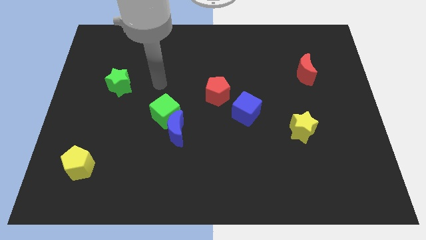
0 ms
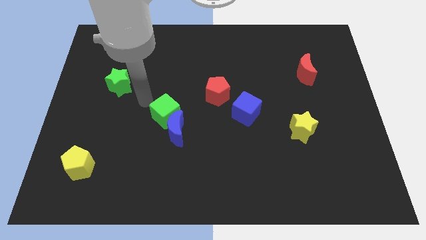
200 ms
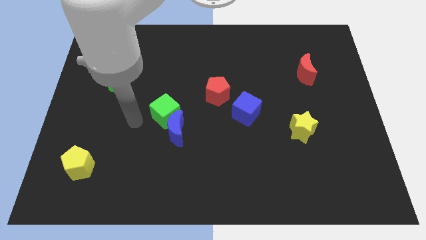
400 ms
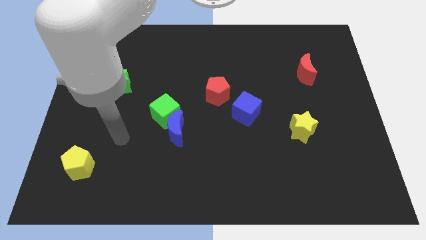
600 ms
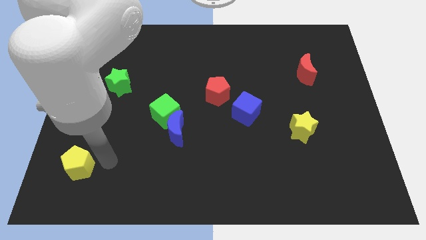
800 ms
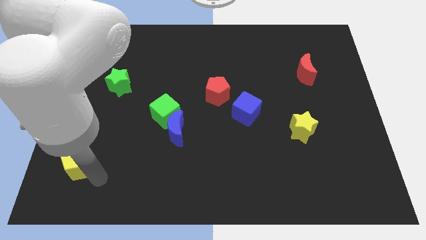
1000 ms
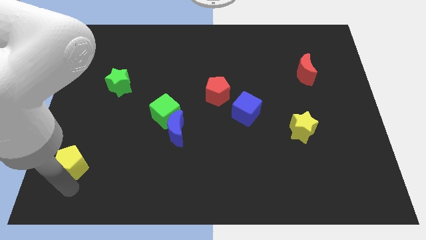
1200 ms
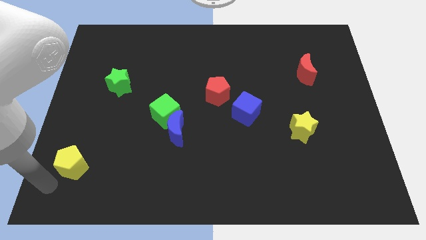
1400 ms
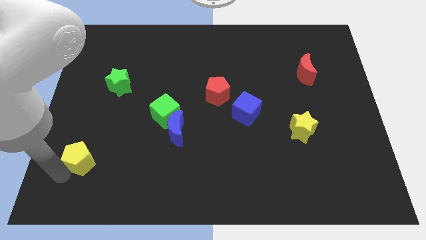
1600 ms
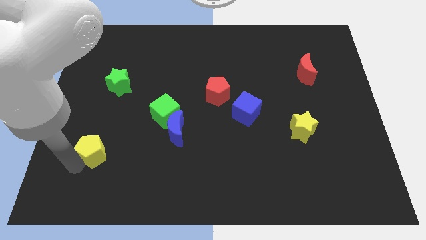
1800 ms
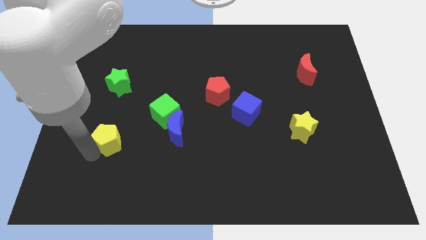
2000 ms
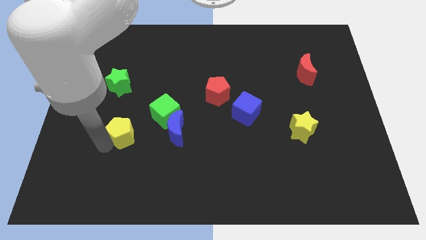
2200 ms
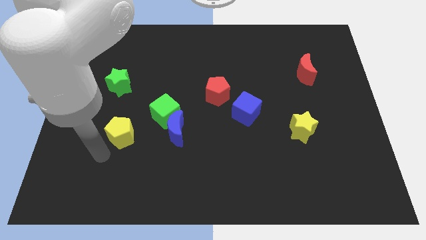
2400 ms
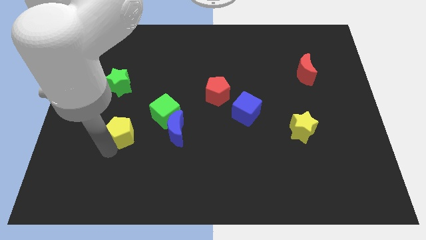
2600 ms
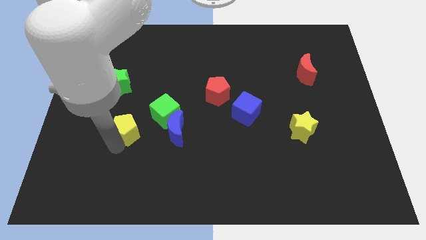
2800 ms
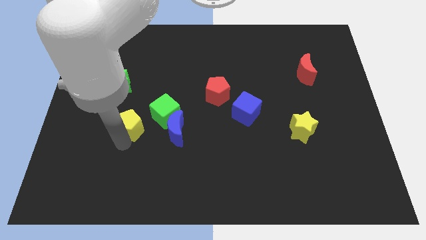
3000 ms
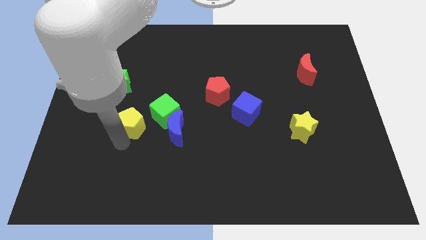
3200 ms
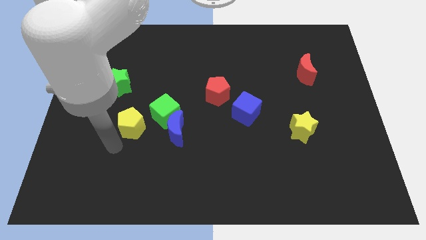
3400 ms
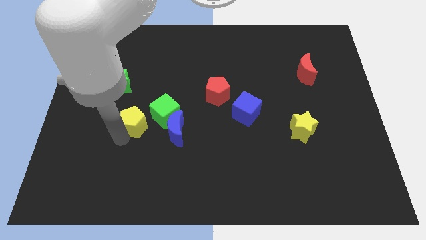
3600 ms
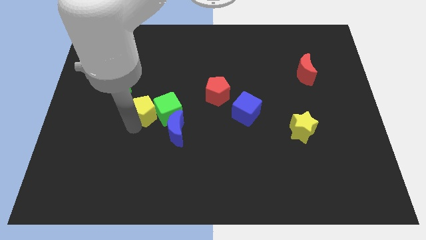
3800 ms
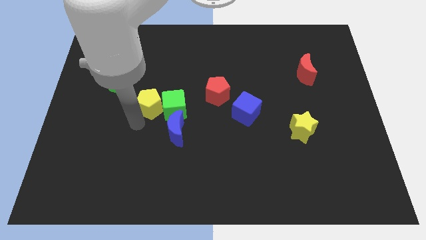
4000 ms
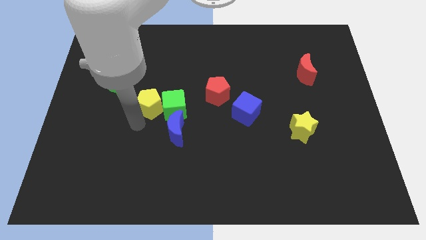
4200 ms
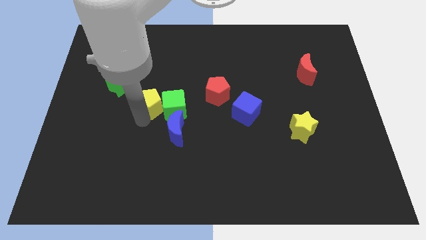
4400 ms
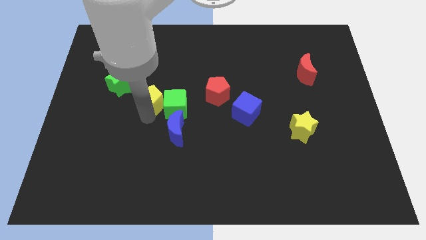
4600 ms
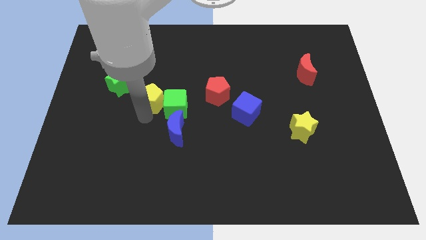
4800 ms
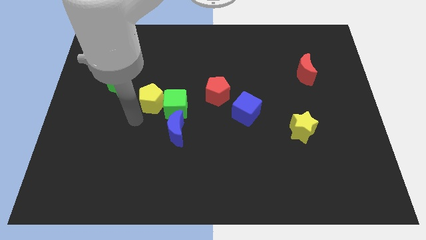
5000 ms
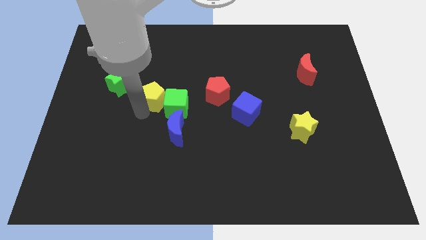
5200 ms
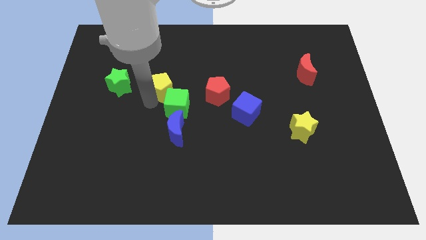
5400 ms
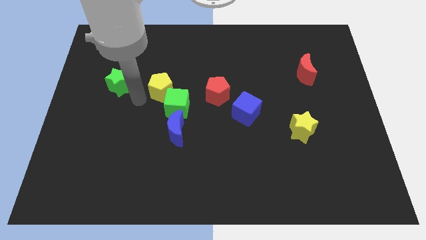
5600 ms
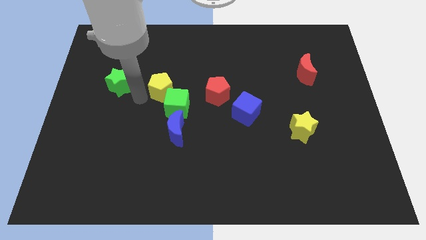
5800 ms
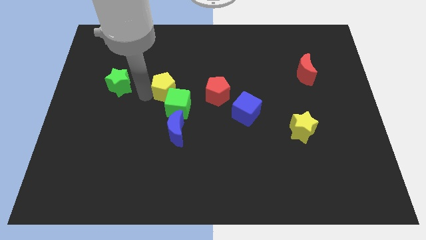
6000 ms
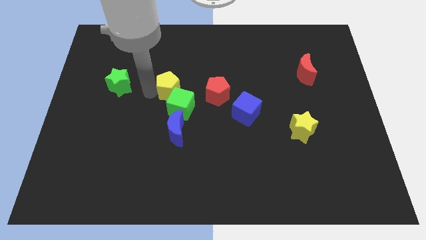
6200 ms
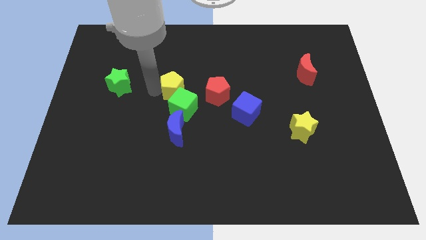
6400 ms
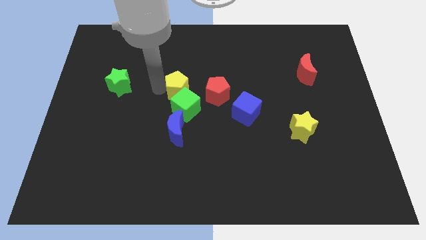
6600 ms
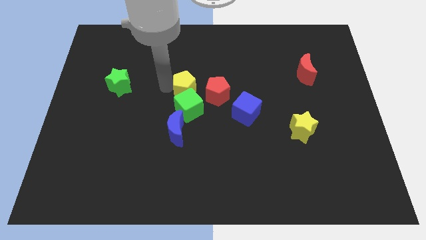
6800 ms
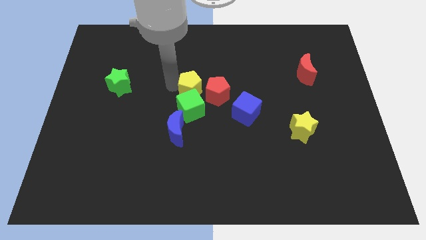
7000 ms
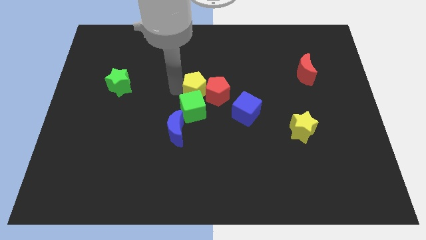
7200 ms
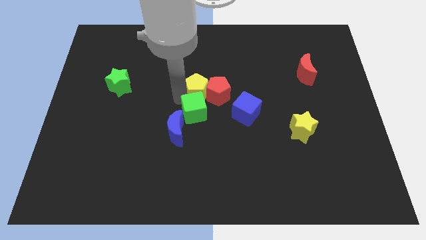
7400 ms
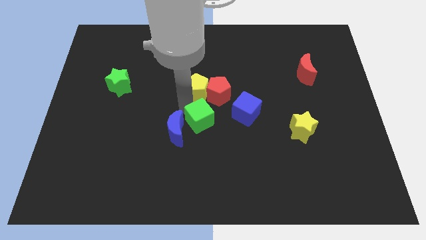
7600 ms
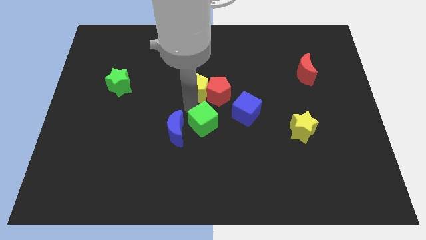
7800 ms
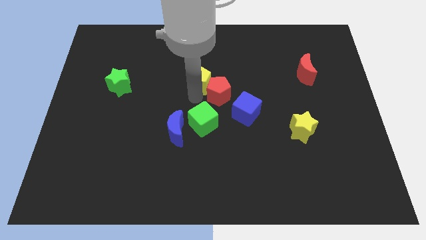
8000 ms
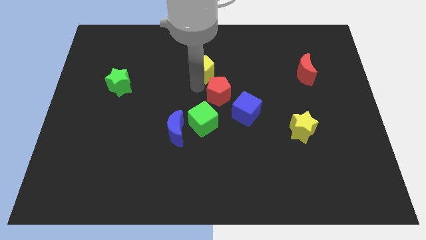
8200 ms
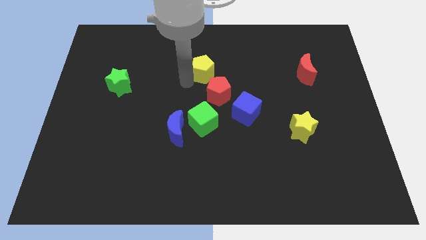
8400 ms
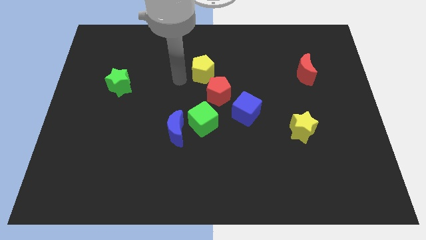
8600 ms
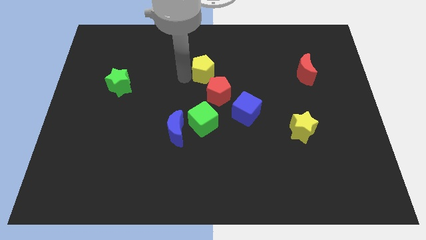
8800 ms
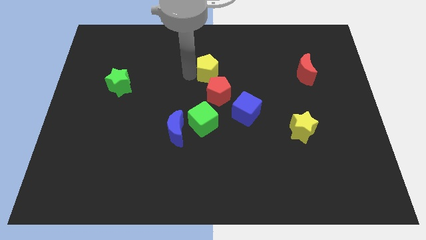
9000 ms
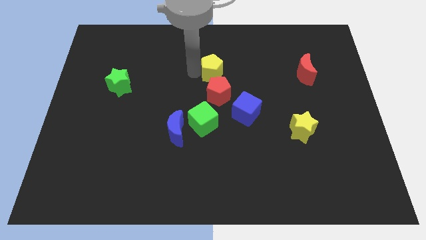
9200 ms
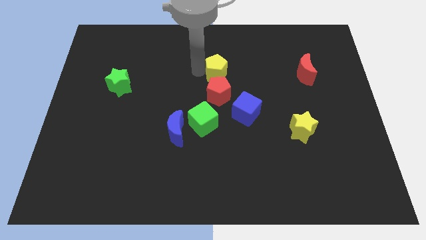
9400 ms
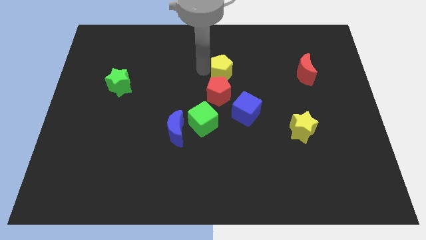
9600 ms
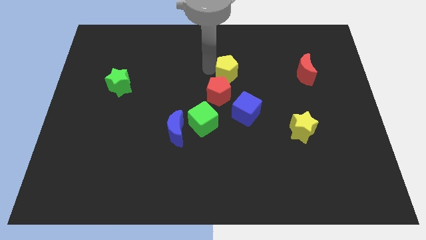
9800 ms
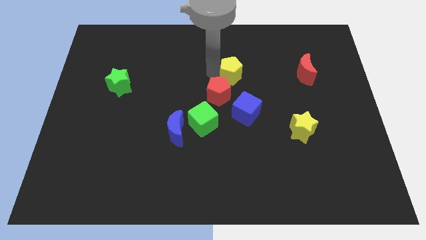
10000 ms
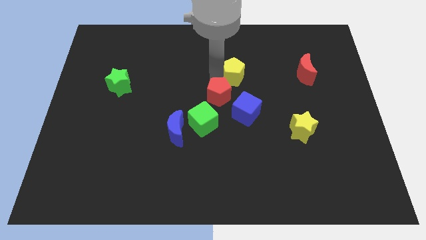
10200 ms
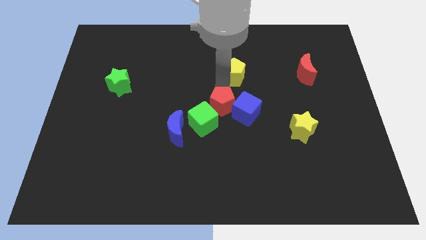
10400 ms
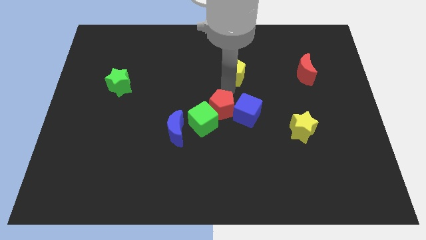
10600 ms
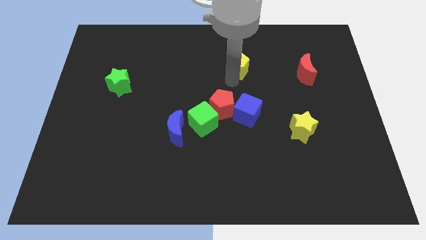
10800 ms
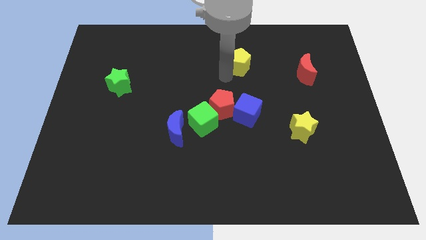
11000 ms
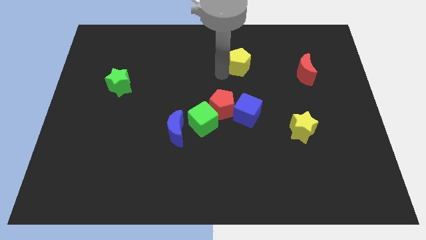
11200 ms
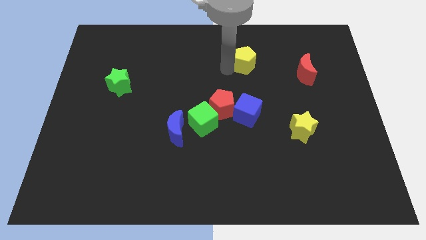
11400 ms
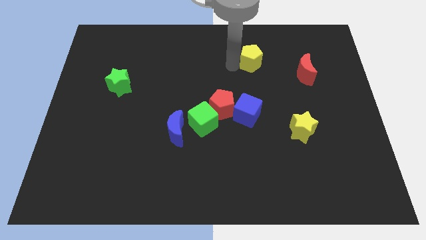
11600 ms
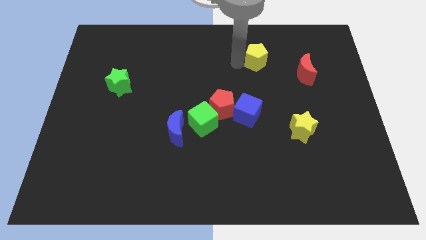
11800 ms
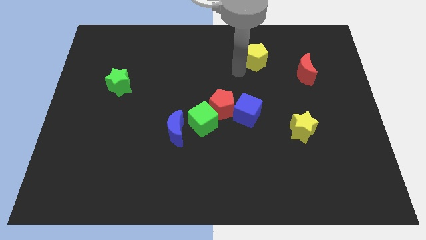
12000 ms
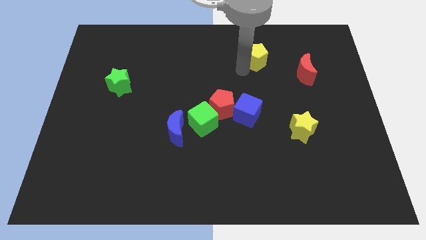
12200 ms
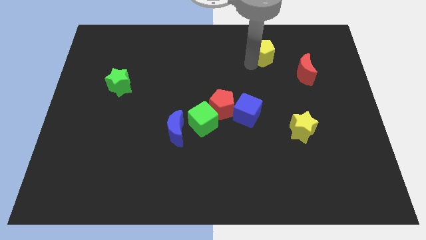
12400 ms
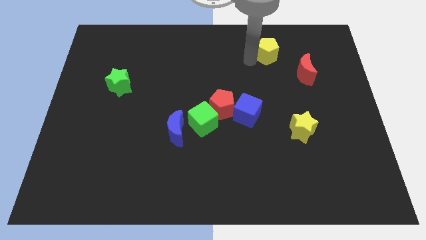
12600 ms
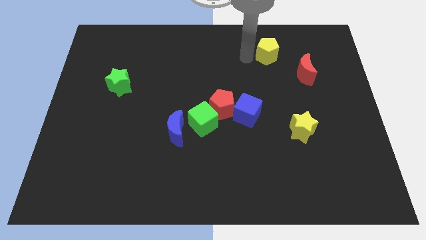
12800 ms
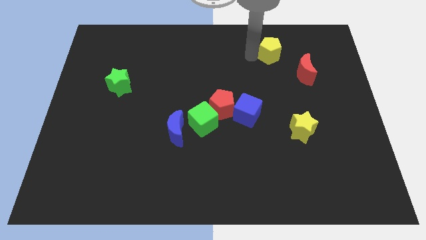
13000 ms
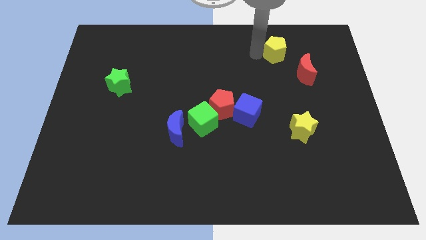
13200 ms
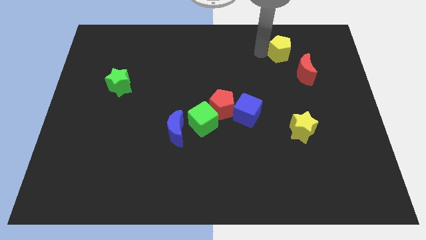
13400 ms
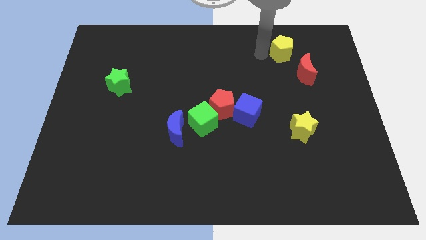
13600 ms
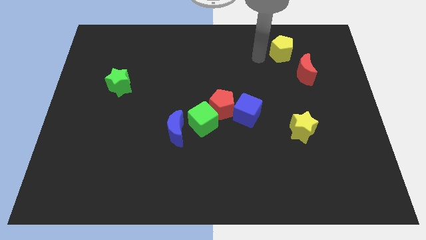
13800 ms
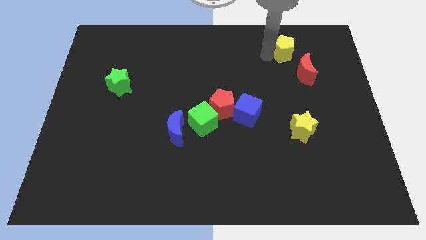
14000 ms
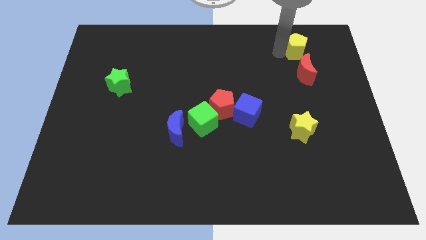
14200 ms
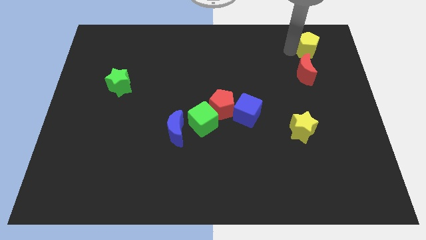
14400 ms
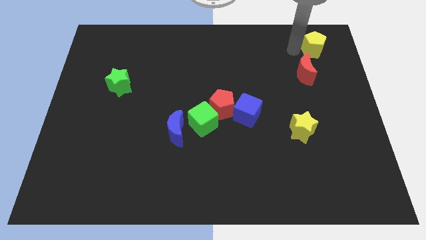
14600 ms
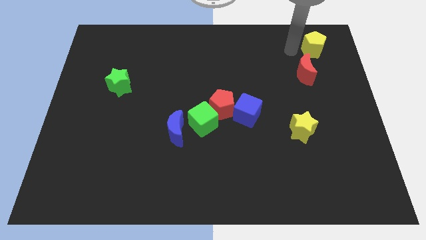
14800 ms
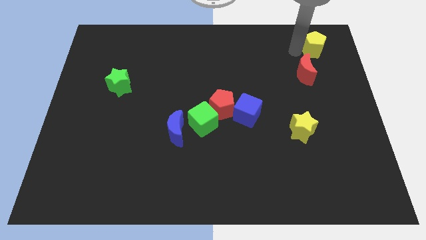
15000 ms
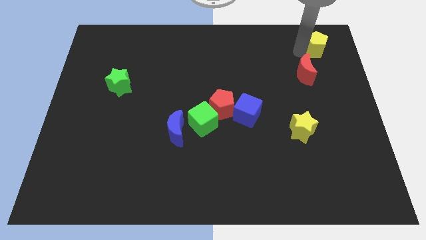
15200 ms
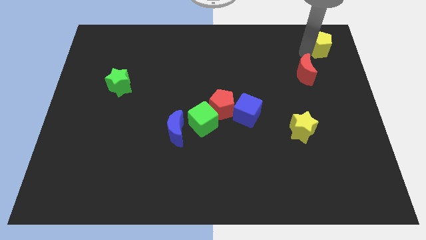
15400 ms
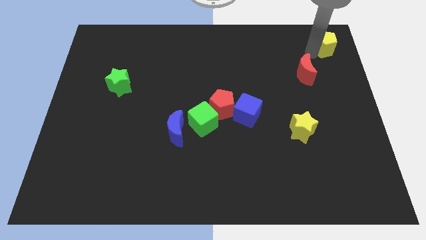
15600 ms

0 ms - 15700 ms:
put the yellow pentagon to the top right of the board
